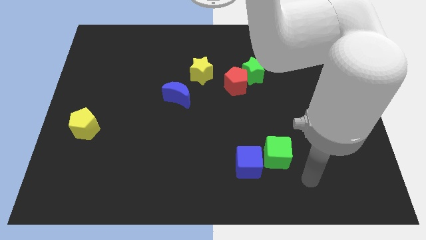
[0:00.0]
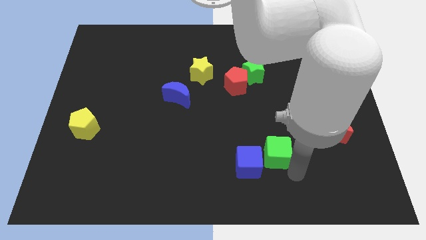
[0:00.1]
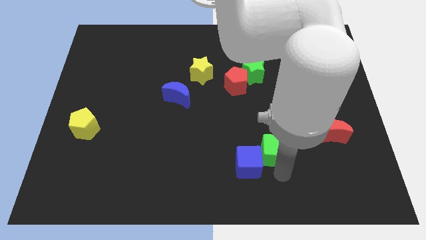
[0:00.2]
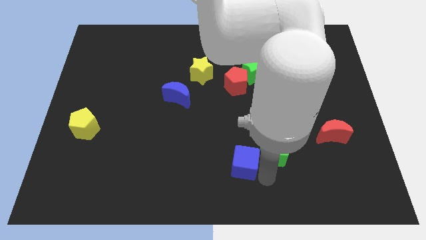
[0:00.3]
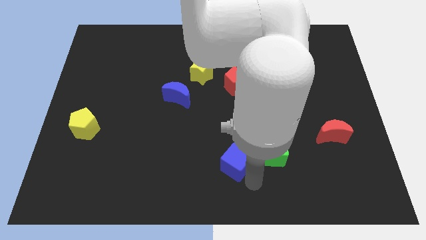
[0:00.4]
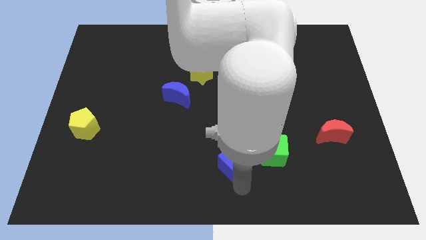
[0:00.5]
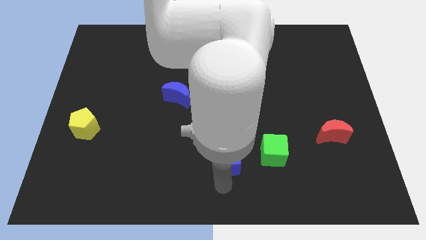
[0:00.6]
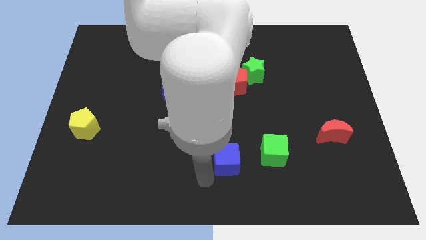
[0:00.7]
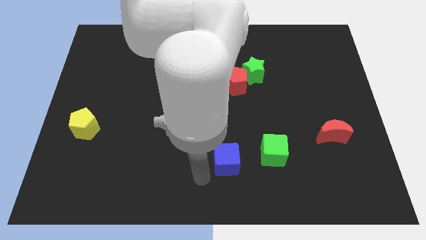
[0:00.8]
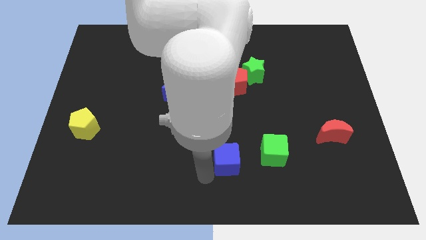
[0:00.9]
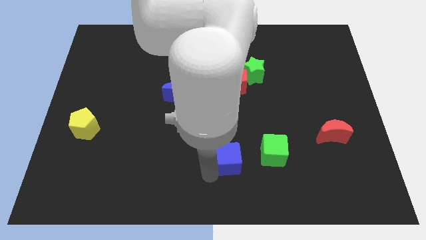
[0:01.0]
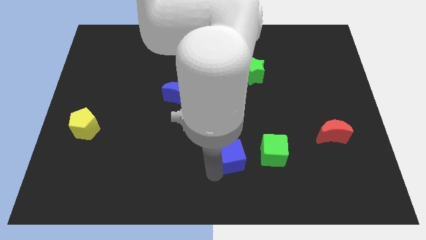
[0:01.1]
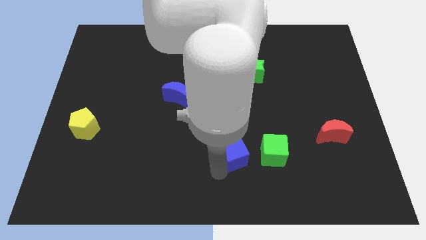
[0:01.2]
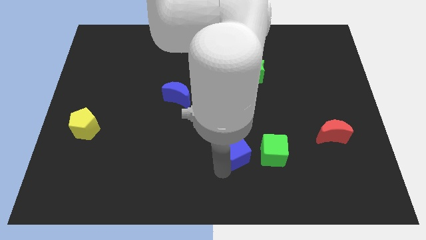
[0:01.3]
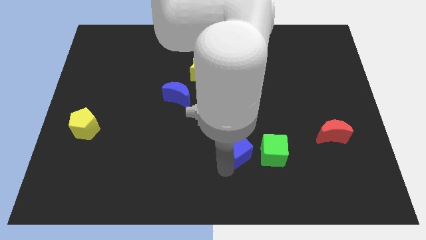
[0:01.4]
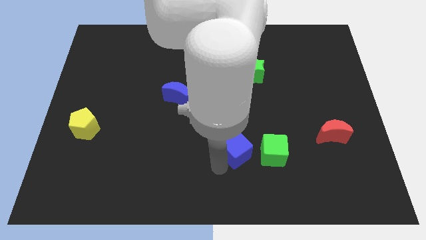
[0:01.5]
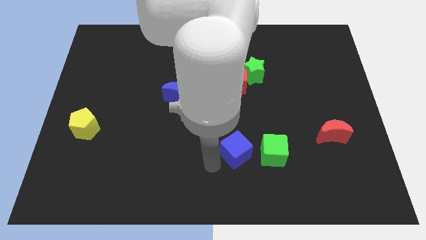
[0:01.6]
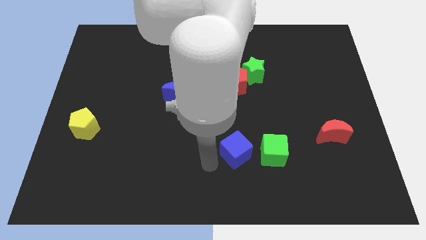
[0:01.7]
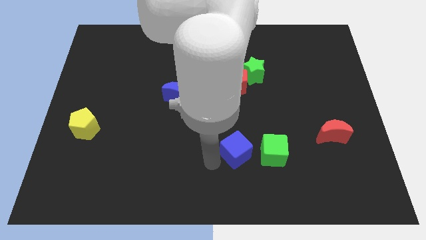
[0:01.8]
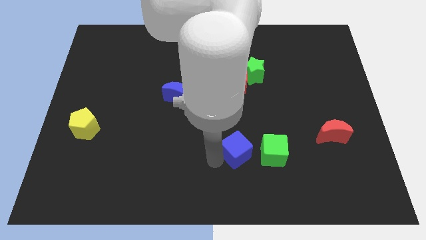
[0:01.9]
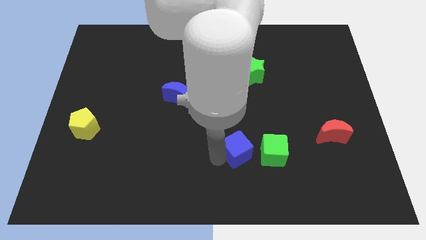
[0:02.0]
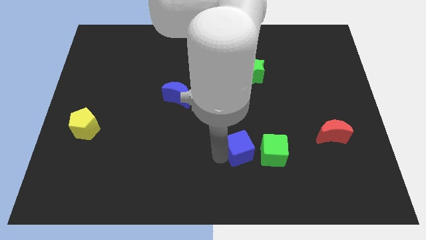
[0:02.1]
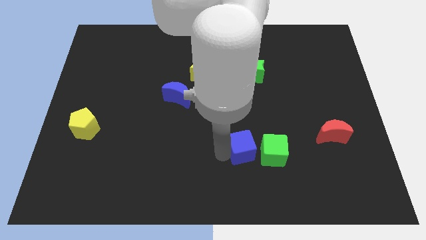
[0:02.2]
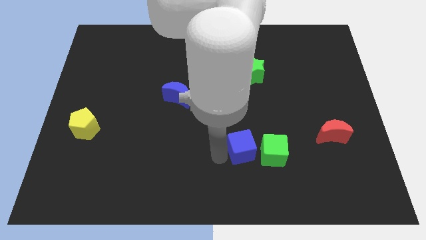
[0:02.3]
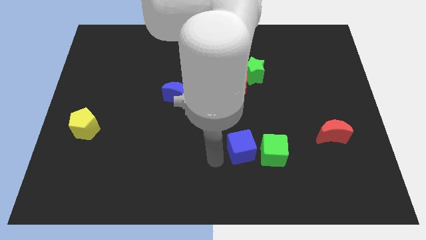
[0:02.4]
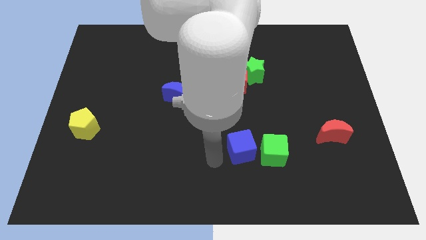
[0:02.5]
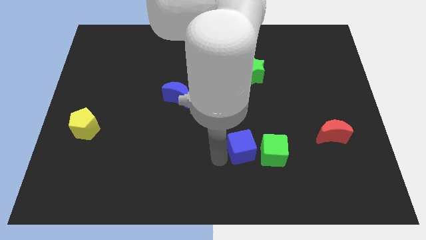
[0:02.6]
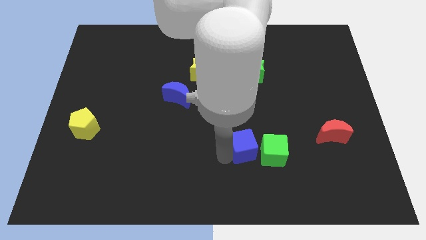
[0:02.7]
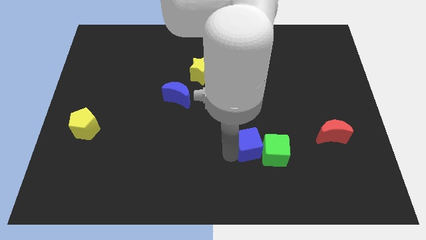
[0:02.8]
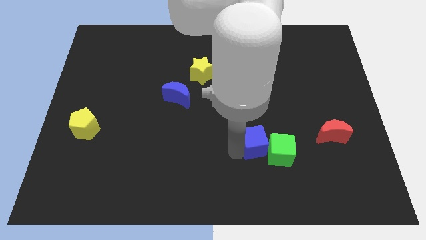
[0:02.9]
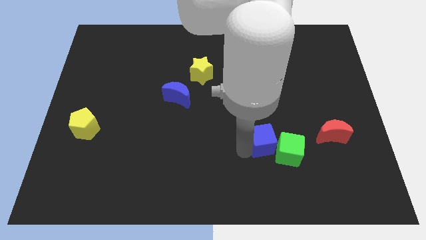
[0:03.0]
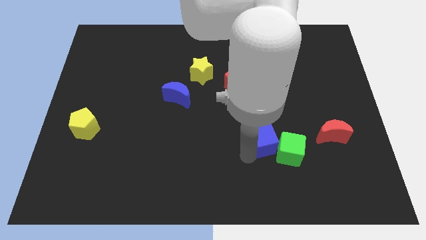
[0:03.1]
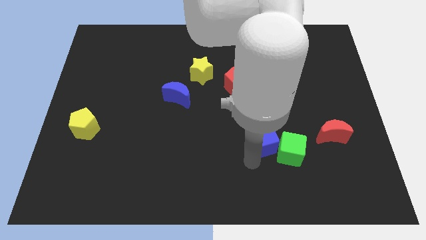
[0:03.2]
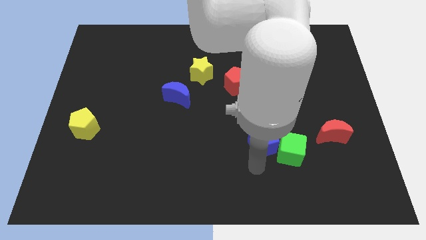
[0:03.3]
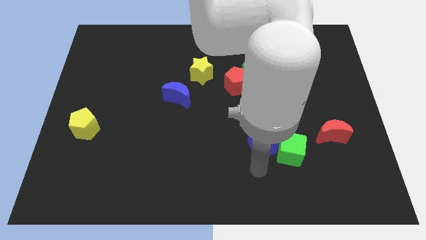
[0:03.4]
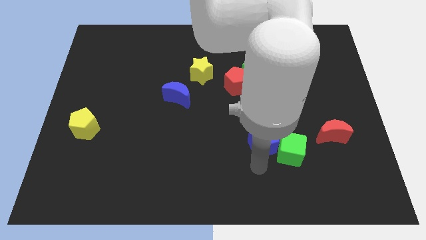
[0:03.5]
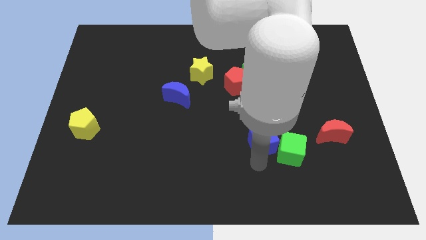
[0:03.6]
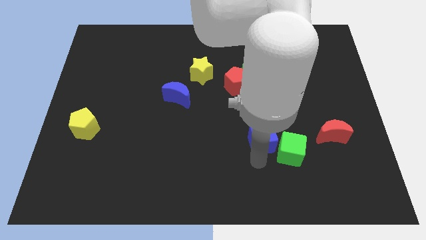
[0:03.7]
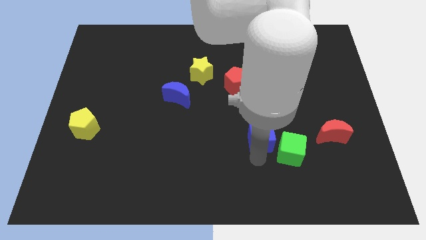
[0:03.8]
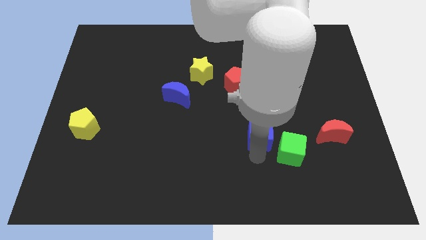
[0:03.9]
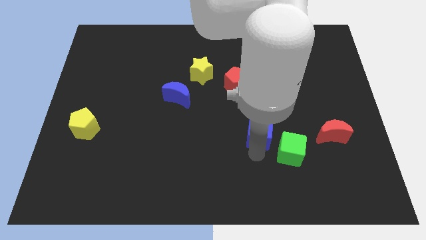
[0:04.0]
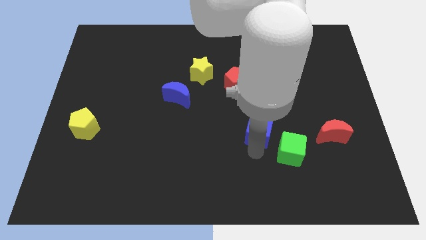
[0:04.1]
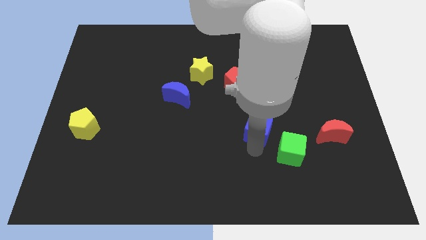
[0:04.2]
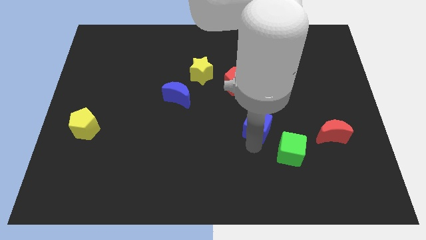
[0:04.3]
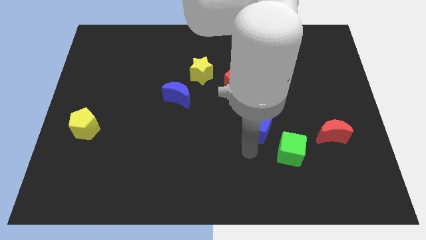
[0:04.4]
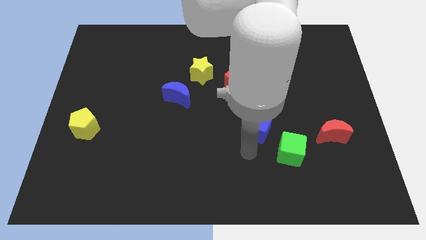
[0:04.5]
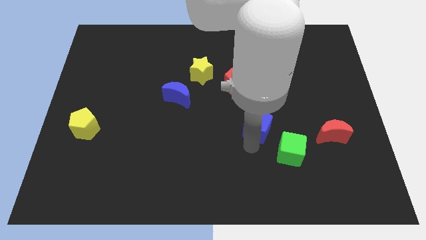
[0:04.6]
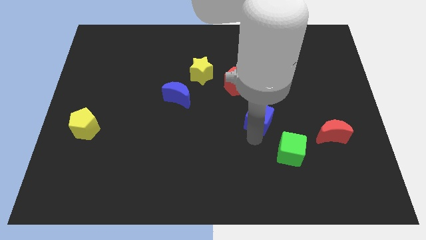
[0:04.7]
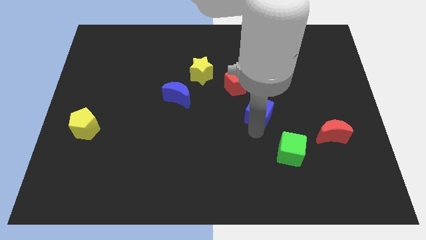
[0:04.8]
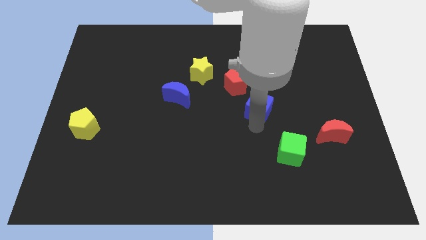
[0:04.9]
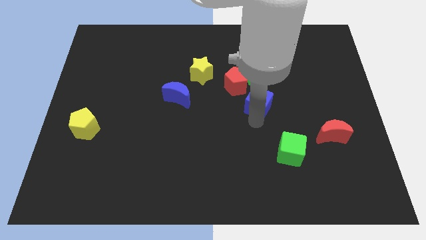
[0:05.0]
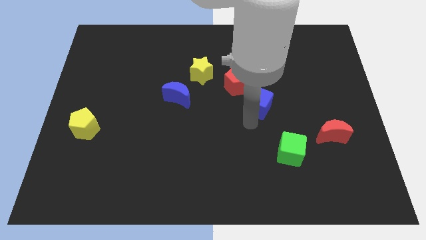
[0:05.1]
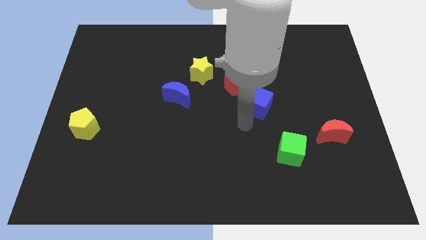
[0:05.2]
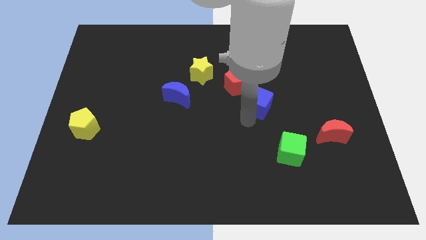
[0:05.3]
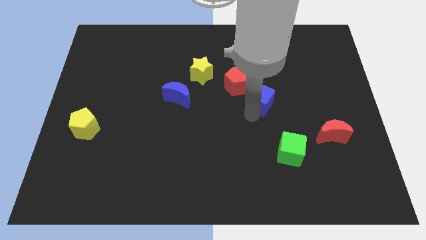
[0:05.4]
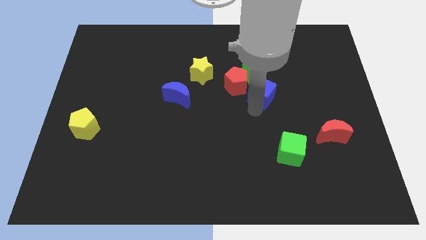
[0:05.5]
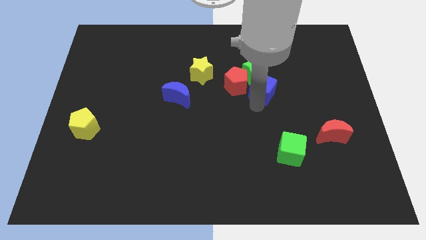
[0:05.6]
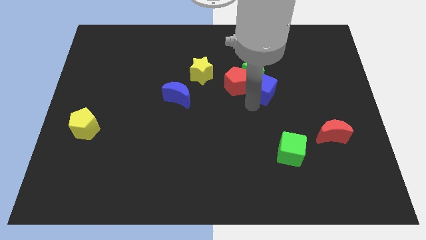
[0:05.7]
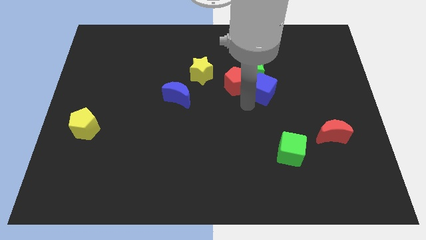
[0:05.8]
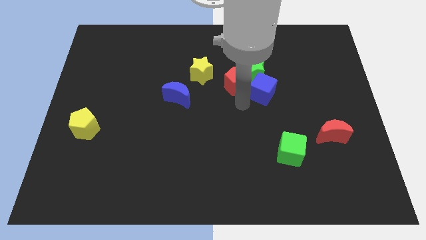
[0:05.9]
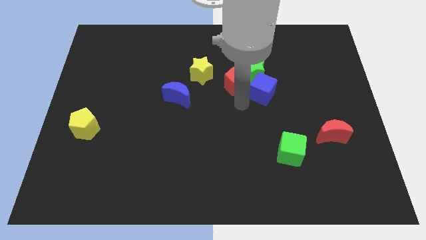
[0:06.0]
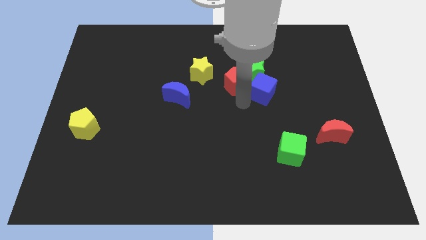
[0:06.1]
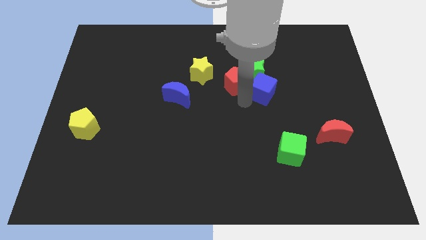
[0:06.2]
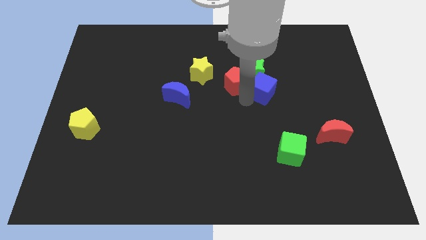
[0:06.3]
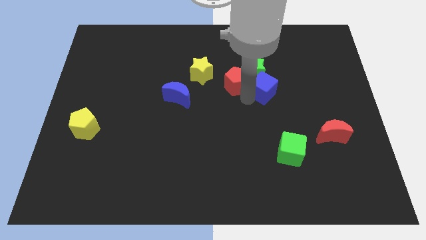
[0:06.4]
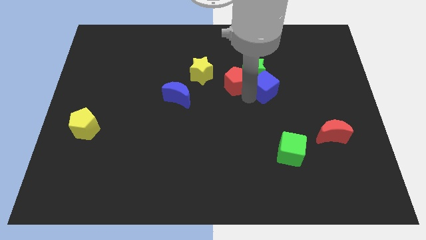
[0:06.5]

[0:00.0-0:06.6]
slide the blue cube up

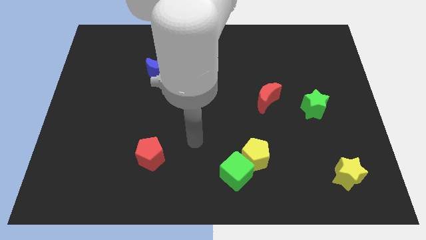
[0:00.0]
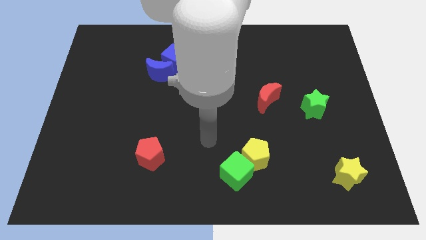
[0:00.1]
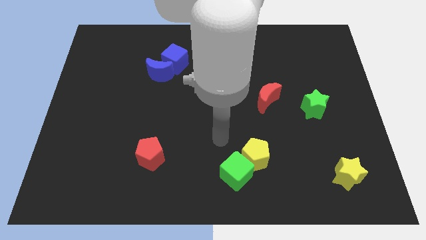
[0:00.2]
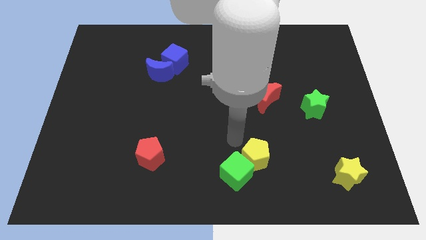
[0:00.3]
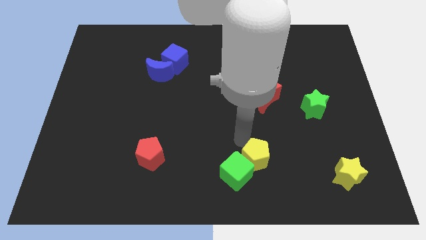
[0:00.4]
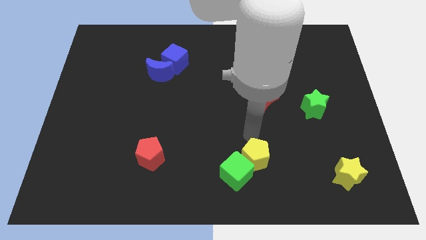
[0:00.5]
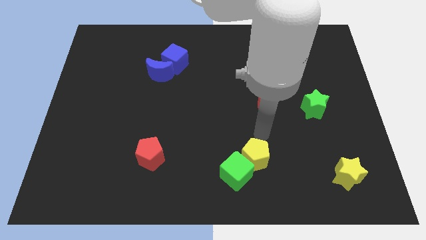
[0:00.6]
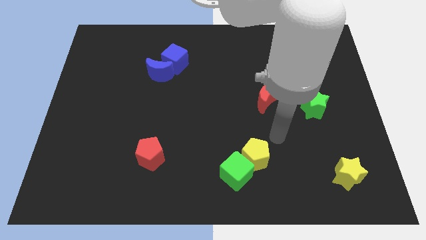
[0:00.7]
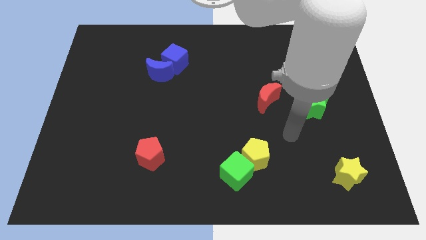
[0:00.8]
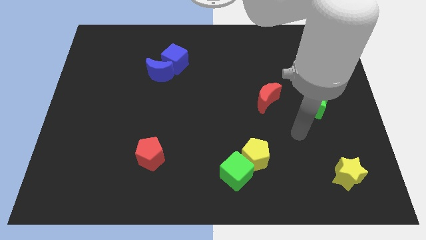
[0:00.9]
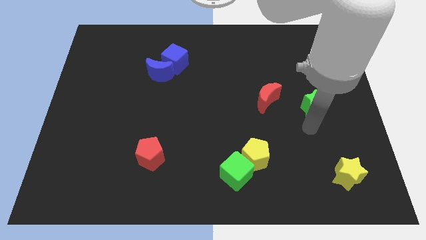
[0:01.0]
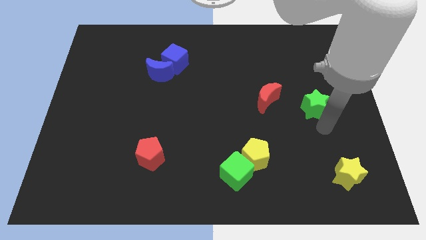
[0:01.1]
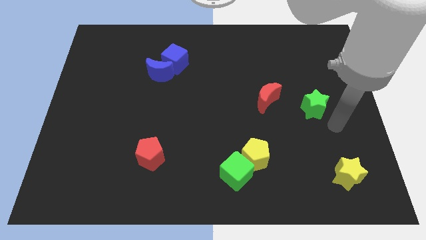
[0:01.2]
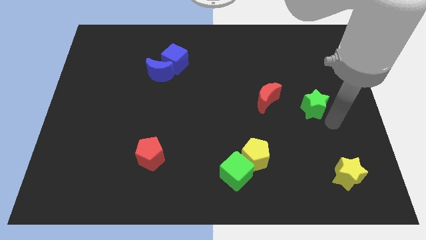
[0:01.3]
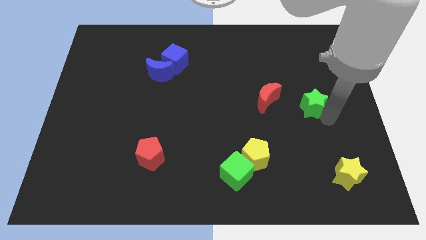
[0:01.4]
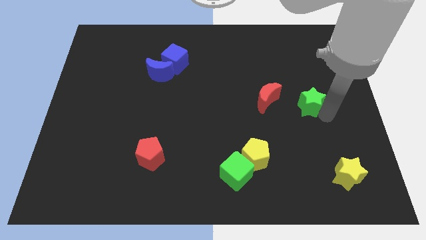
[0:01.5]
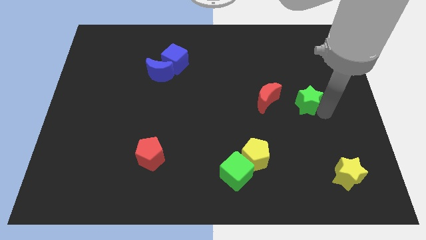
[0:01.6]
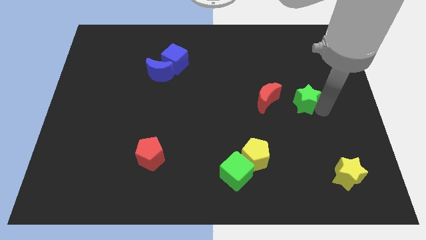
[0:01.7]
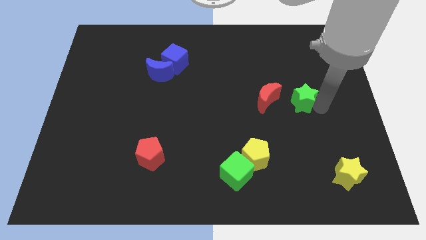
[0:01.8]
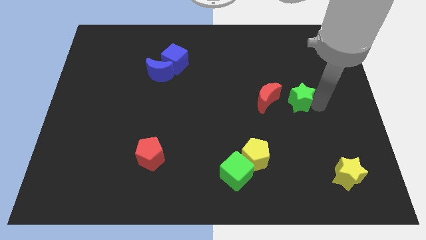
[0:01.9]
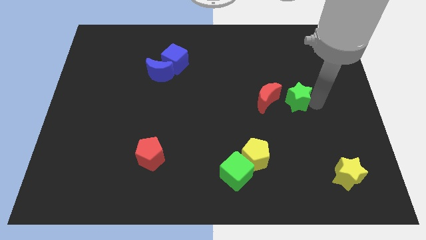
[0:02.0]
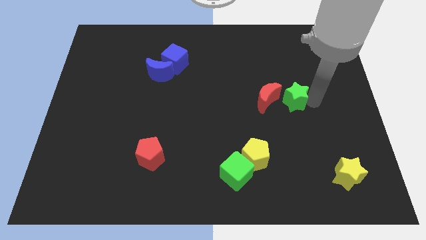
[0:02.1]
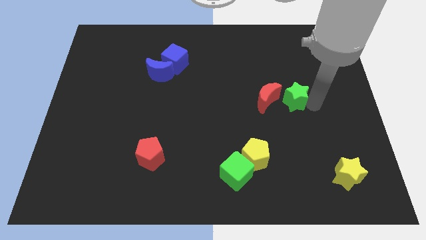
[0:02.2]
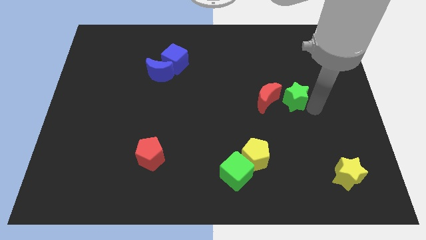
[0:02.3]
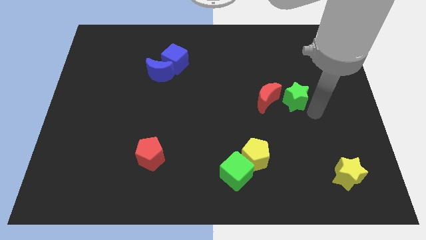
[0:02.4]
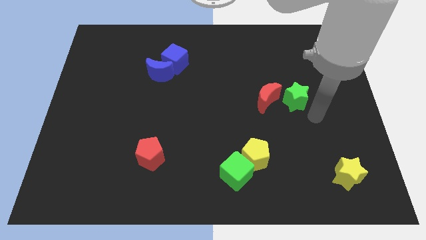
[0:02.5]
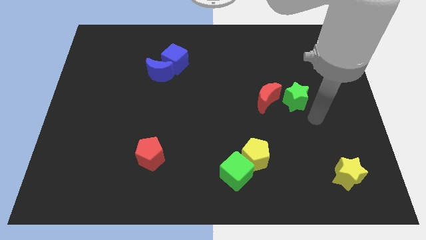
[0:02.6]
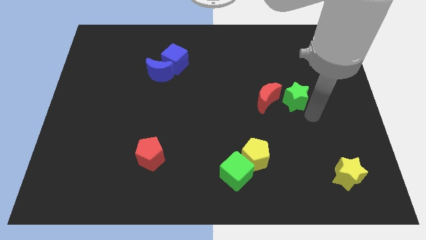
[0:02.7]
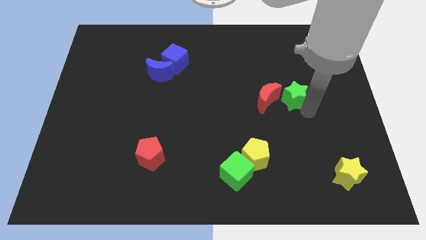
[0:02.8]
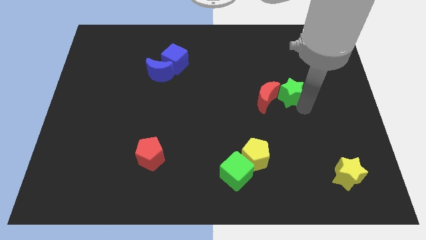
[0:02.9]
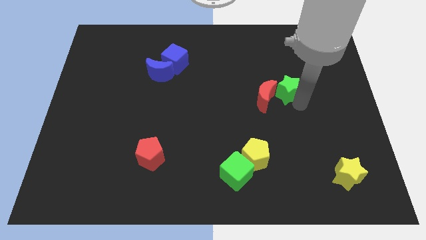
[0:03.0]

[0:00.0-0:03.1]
move the green star upwards and then left somewhat
